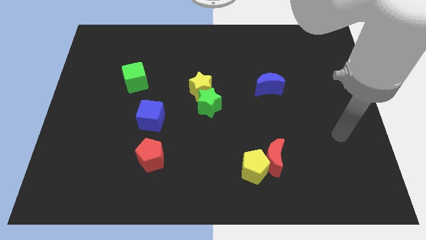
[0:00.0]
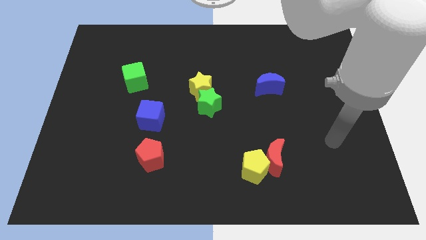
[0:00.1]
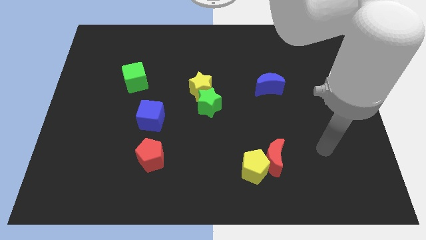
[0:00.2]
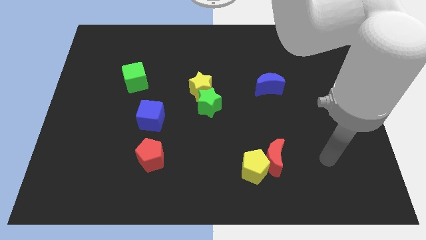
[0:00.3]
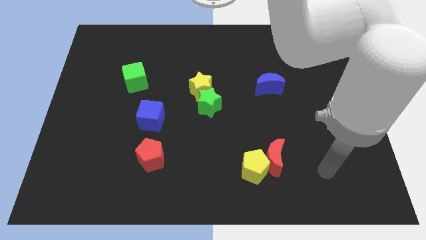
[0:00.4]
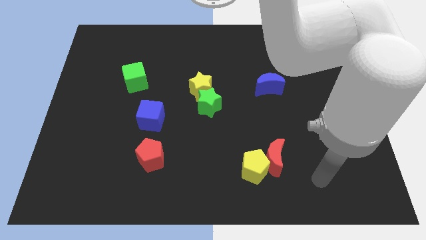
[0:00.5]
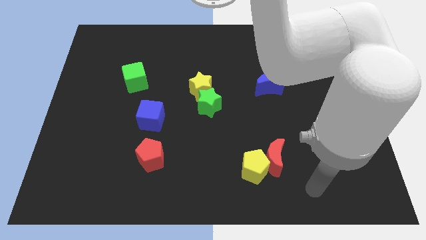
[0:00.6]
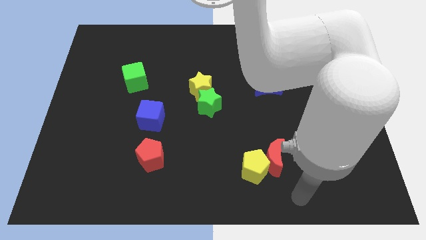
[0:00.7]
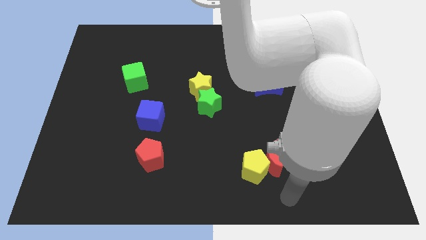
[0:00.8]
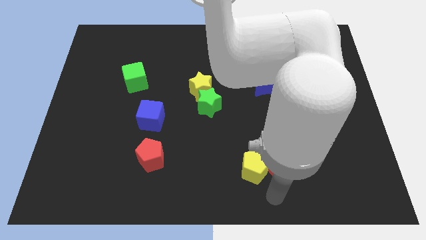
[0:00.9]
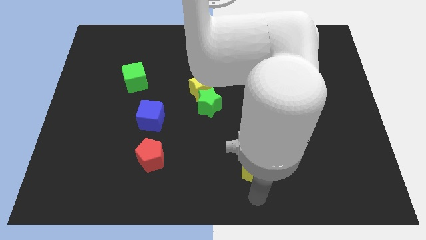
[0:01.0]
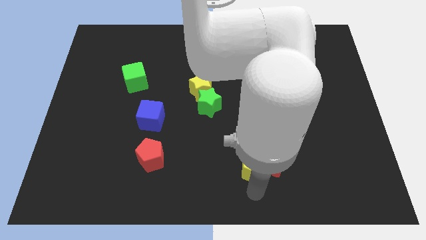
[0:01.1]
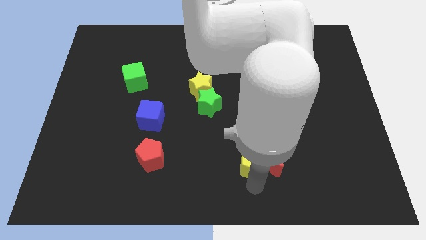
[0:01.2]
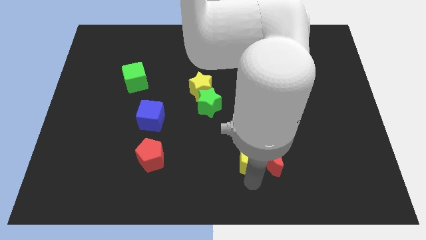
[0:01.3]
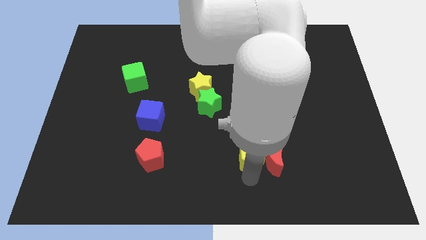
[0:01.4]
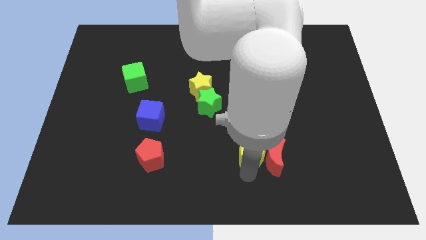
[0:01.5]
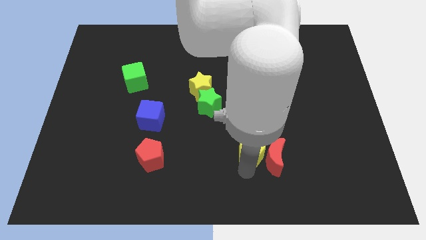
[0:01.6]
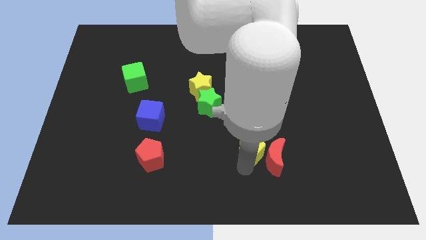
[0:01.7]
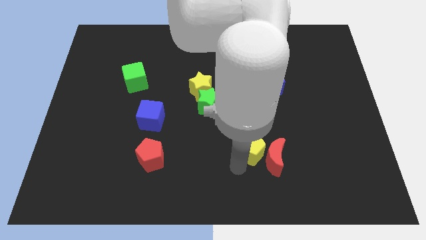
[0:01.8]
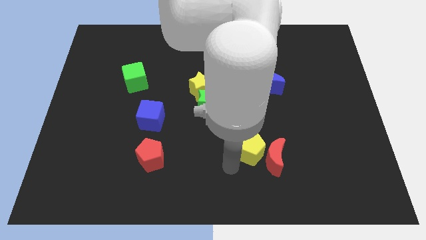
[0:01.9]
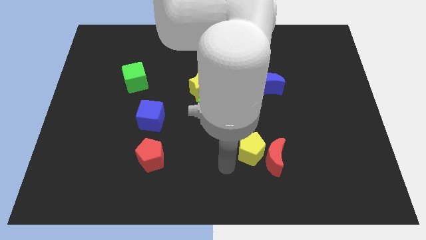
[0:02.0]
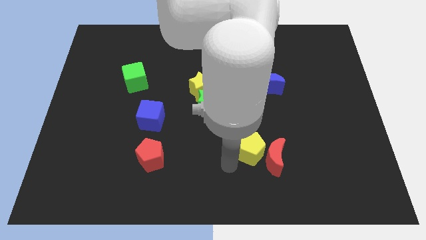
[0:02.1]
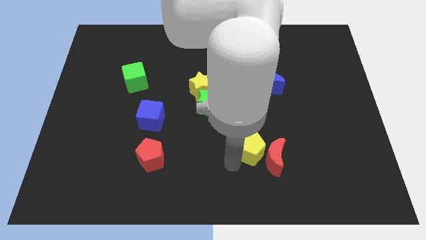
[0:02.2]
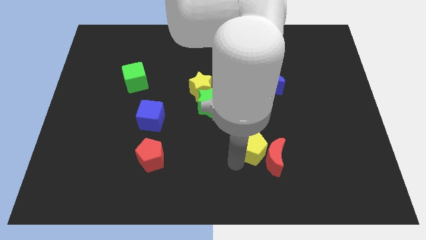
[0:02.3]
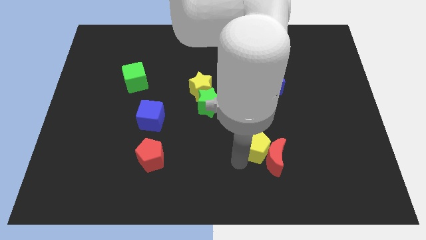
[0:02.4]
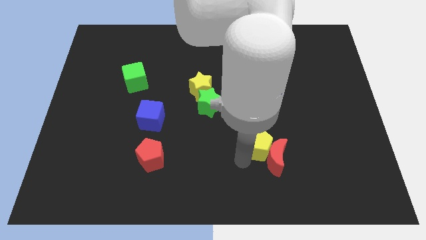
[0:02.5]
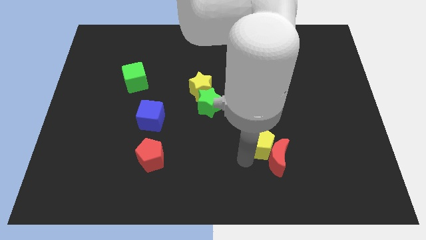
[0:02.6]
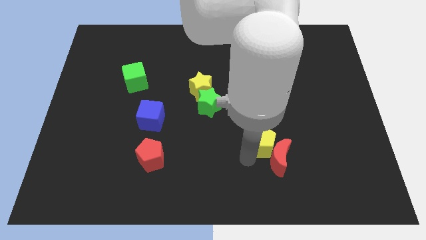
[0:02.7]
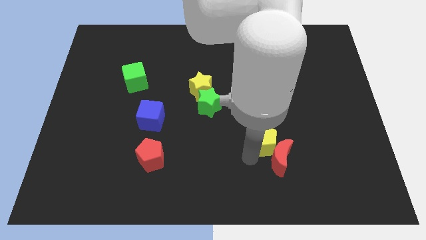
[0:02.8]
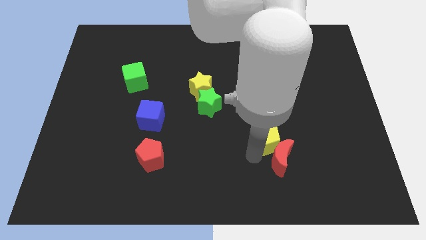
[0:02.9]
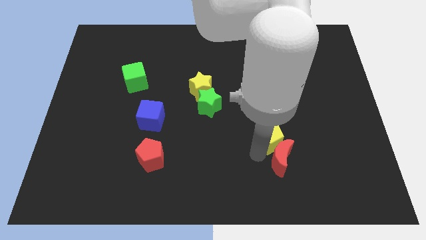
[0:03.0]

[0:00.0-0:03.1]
slide the yellow pentagon slightly up and then to the right

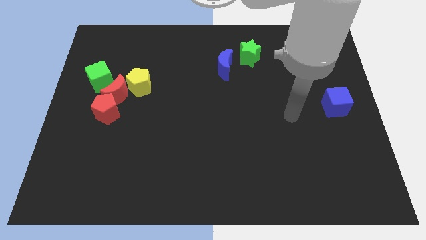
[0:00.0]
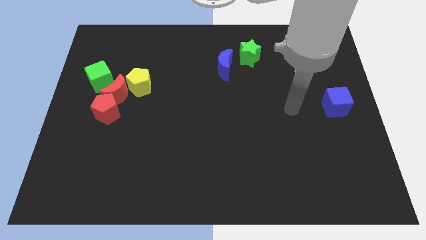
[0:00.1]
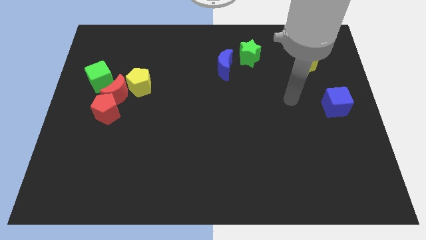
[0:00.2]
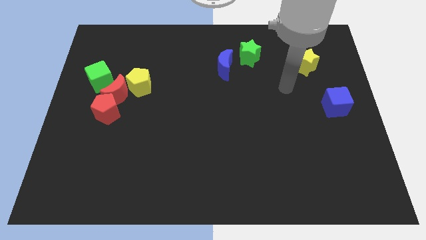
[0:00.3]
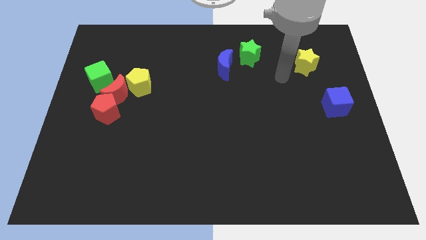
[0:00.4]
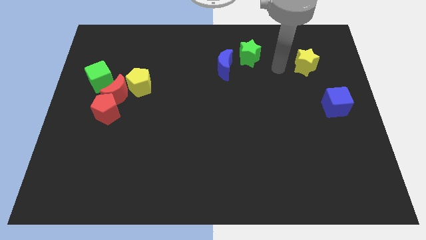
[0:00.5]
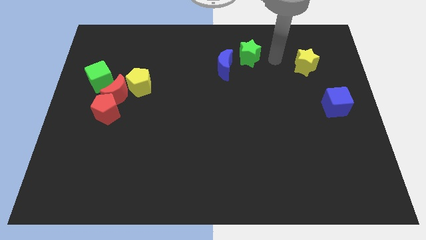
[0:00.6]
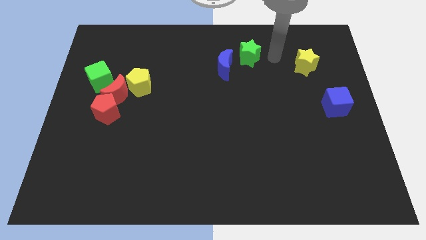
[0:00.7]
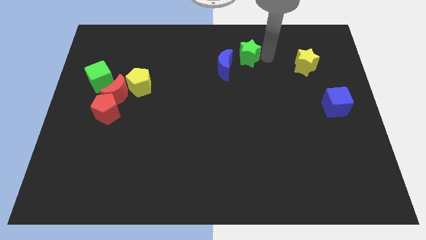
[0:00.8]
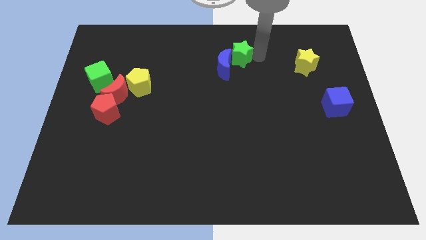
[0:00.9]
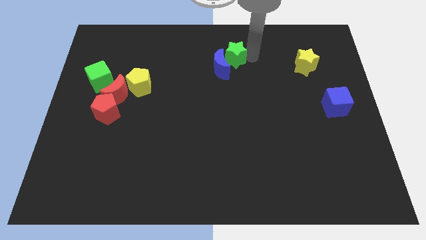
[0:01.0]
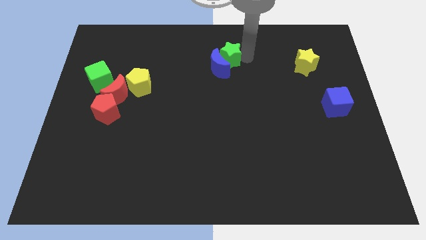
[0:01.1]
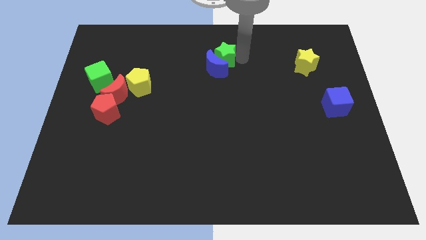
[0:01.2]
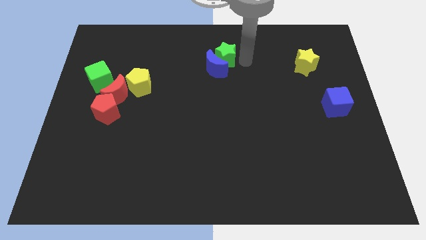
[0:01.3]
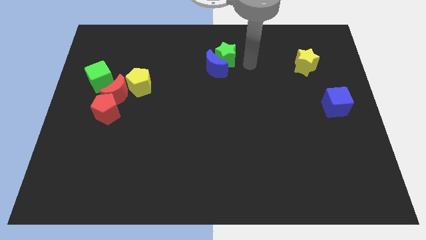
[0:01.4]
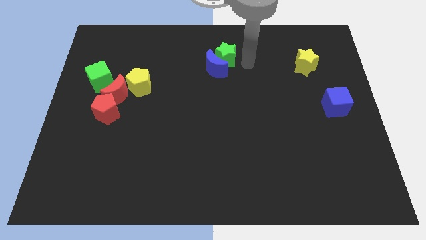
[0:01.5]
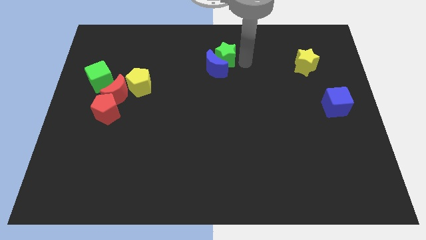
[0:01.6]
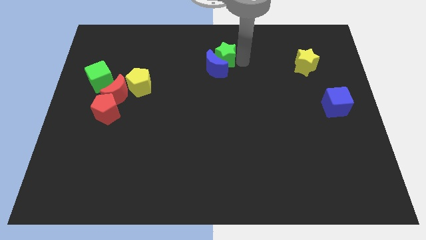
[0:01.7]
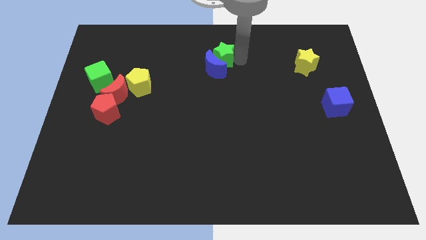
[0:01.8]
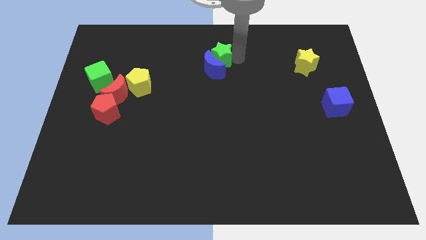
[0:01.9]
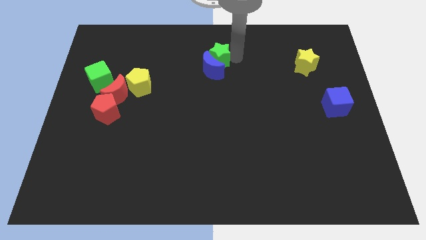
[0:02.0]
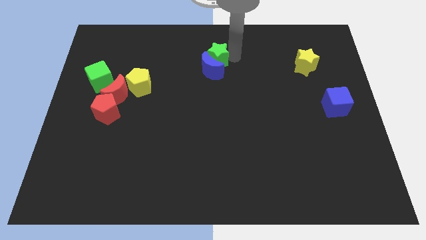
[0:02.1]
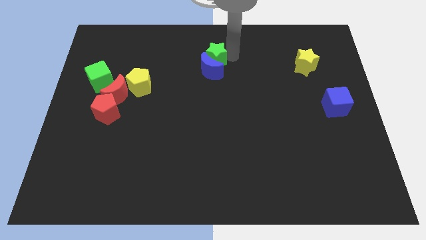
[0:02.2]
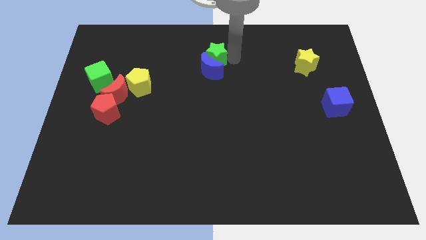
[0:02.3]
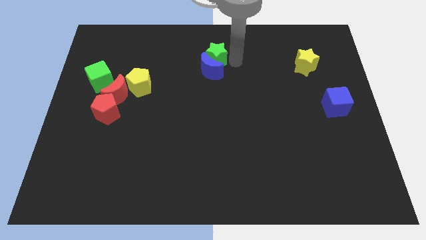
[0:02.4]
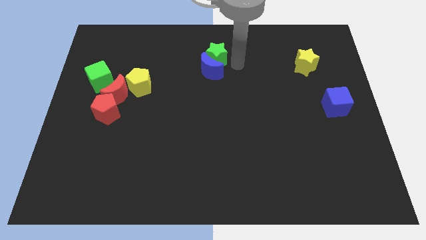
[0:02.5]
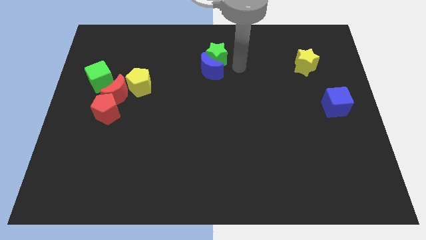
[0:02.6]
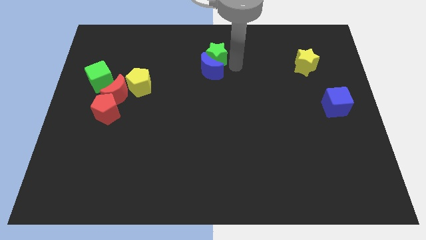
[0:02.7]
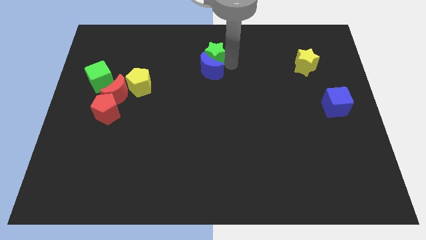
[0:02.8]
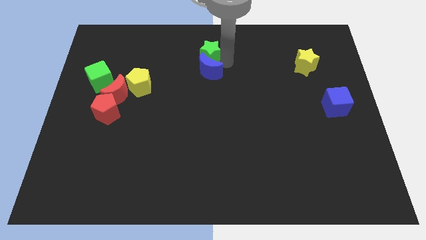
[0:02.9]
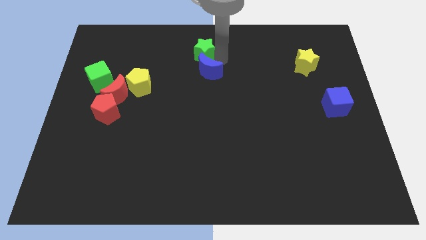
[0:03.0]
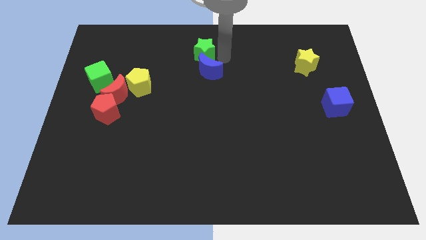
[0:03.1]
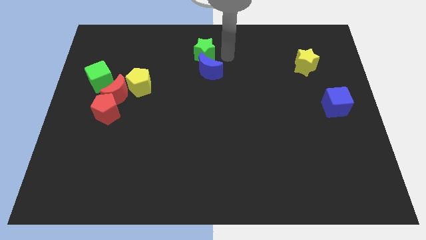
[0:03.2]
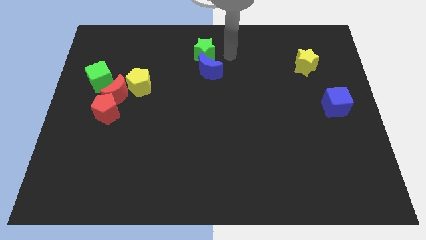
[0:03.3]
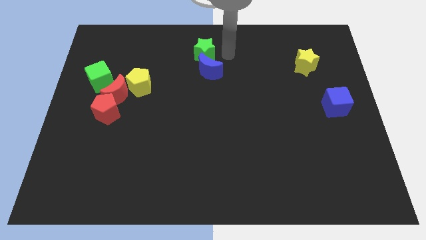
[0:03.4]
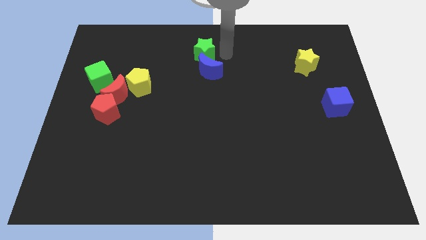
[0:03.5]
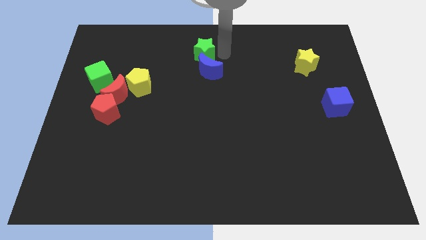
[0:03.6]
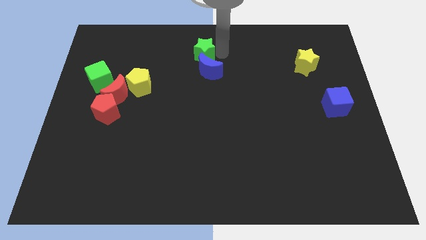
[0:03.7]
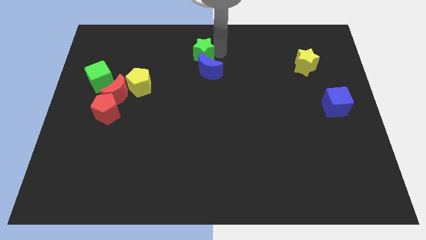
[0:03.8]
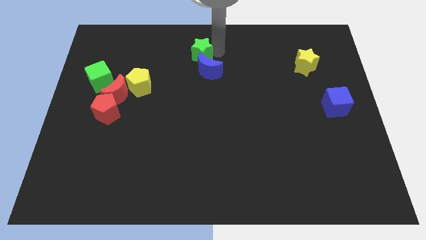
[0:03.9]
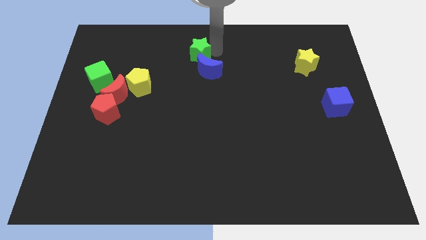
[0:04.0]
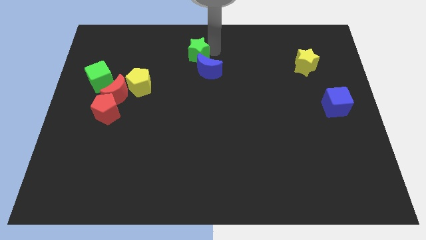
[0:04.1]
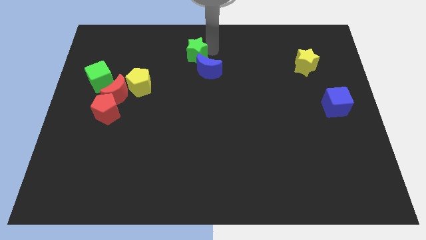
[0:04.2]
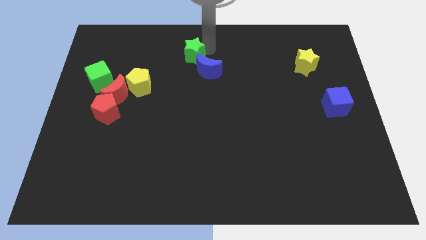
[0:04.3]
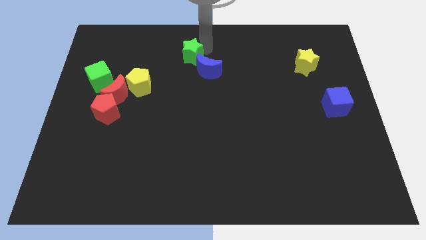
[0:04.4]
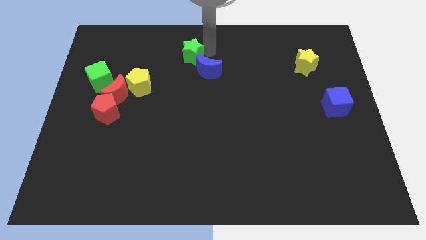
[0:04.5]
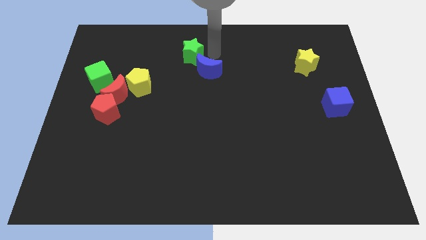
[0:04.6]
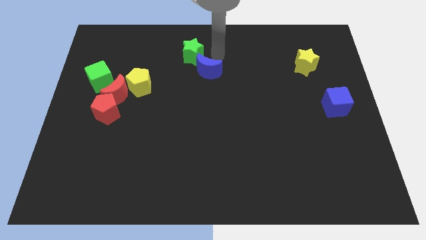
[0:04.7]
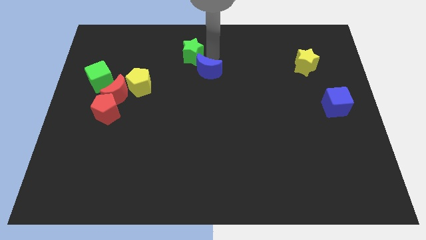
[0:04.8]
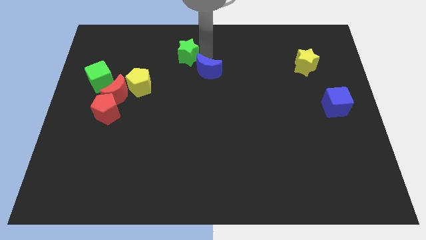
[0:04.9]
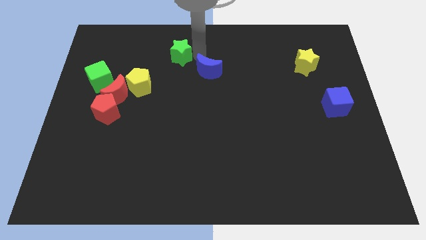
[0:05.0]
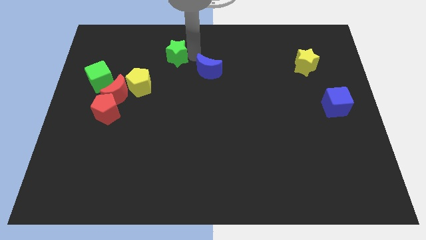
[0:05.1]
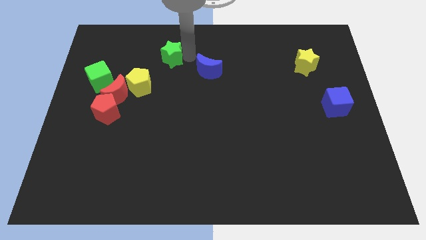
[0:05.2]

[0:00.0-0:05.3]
push the green star left
